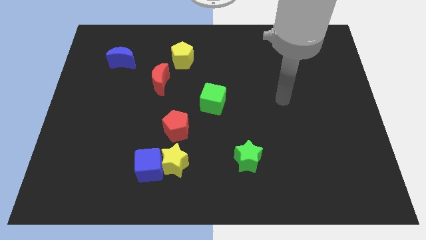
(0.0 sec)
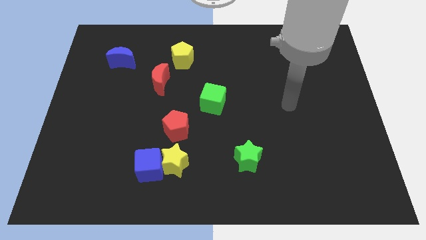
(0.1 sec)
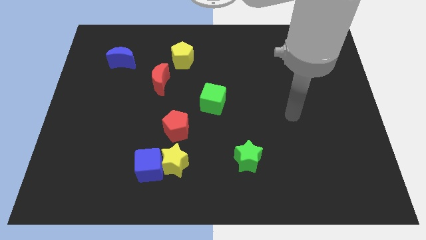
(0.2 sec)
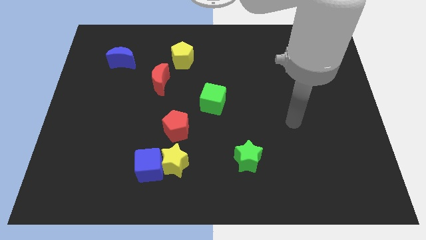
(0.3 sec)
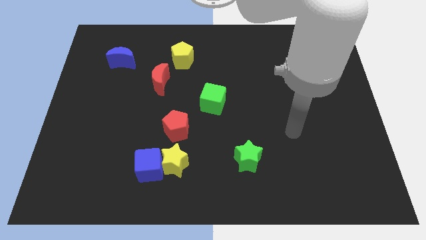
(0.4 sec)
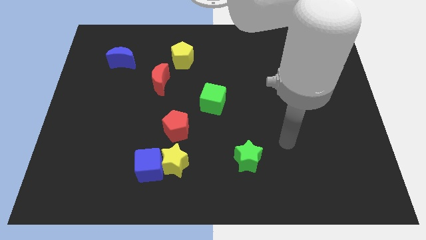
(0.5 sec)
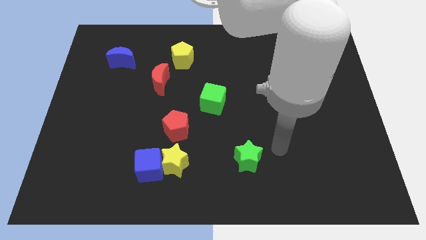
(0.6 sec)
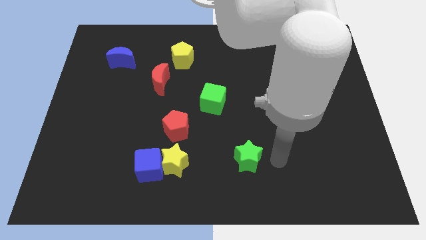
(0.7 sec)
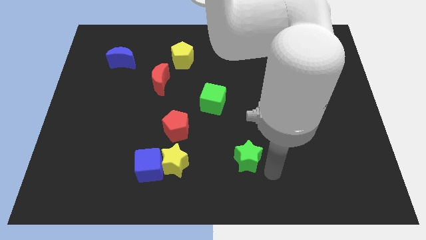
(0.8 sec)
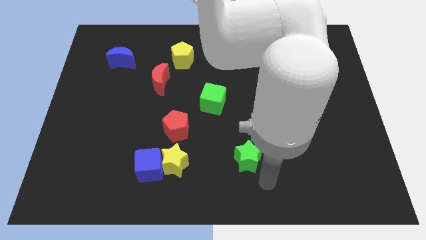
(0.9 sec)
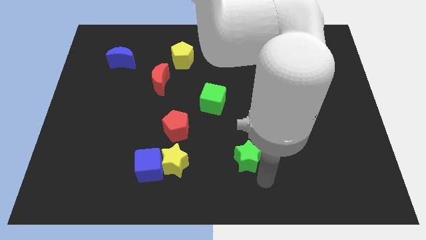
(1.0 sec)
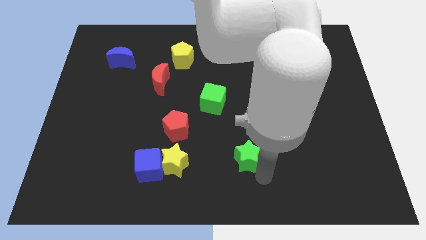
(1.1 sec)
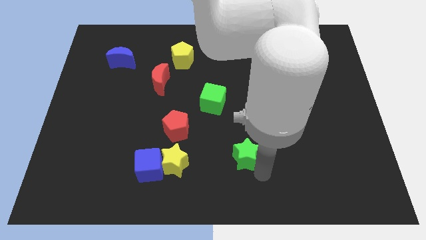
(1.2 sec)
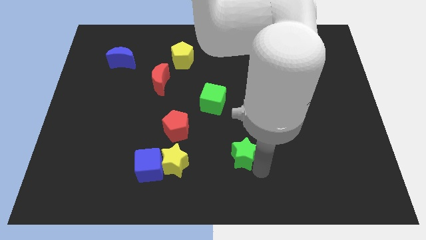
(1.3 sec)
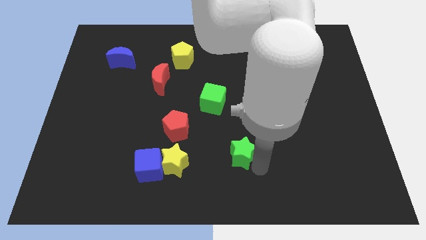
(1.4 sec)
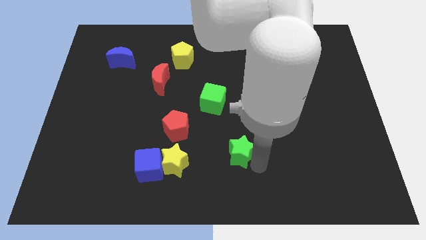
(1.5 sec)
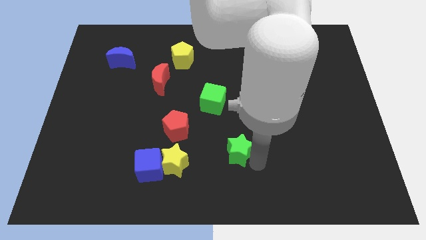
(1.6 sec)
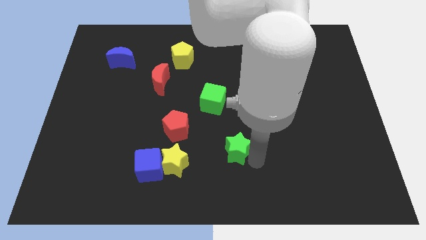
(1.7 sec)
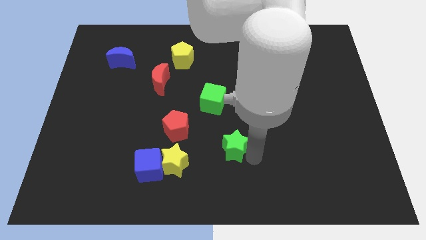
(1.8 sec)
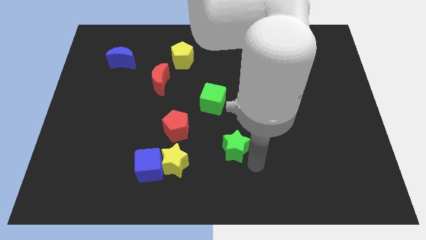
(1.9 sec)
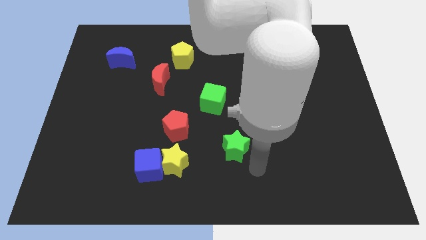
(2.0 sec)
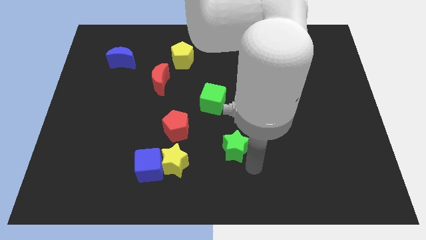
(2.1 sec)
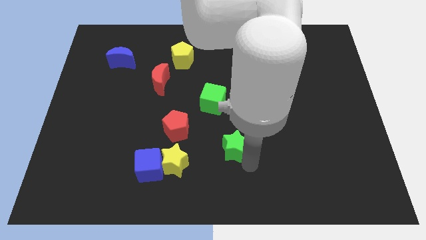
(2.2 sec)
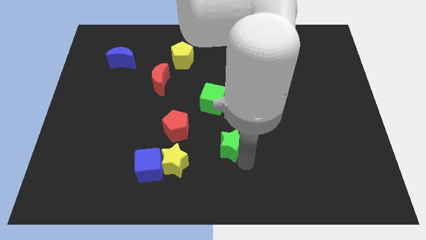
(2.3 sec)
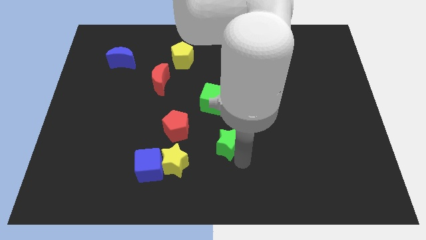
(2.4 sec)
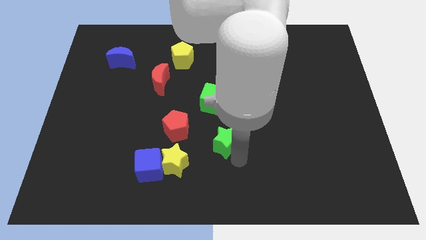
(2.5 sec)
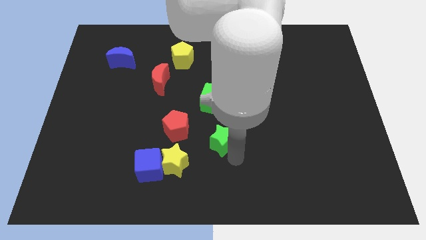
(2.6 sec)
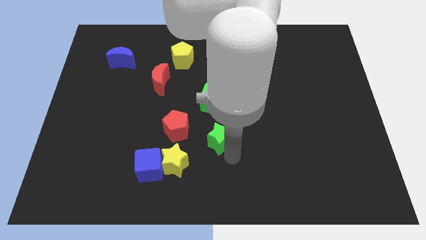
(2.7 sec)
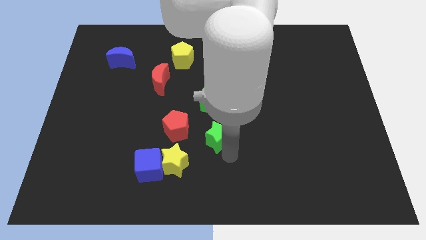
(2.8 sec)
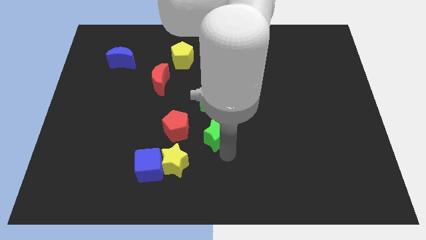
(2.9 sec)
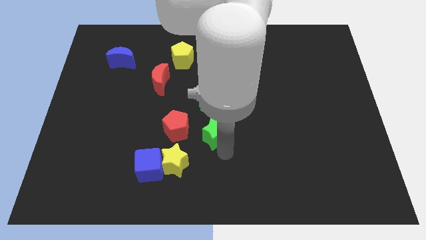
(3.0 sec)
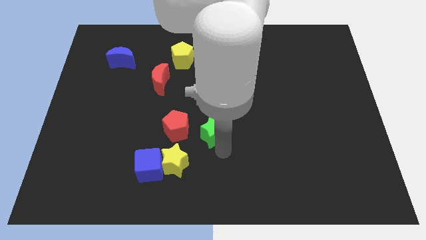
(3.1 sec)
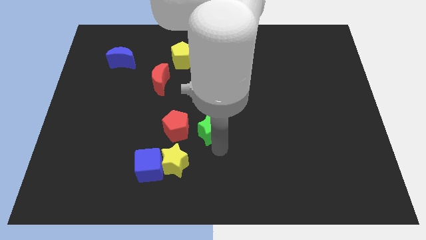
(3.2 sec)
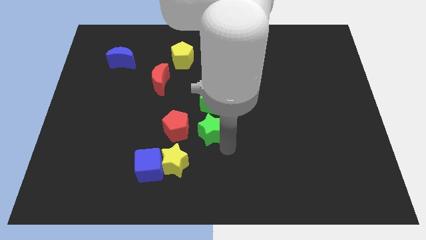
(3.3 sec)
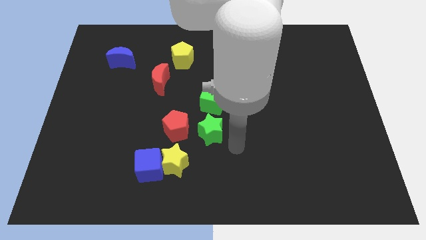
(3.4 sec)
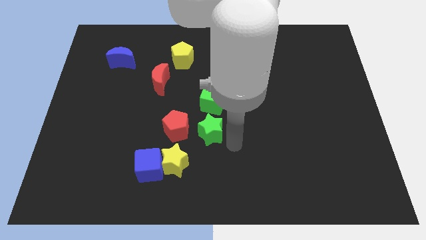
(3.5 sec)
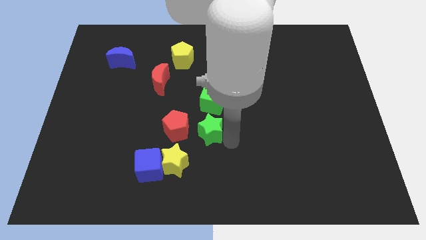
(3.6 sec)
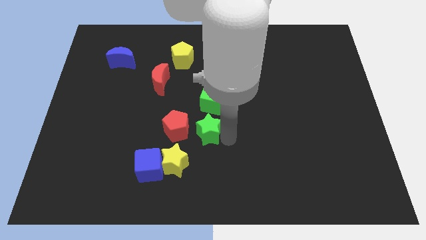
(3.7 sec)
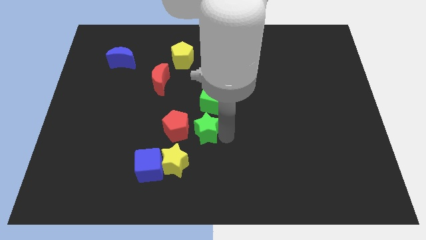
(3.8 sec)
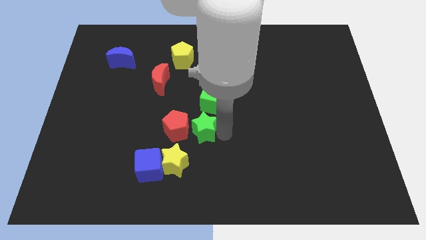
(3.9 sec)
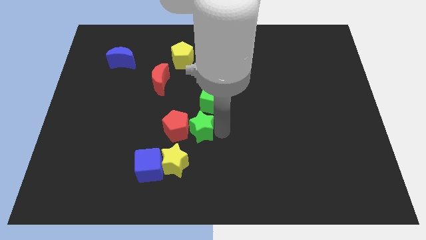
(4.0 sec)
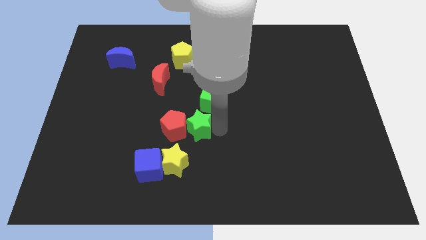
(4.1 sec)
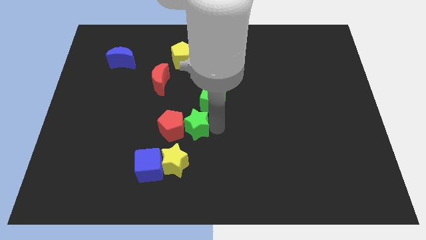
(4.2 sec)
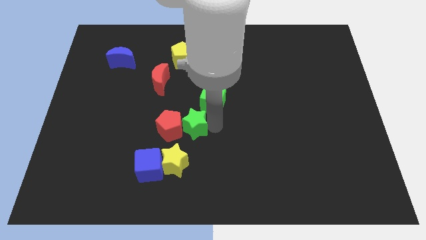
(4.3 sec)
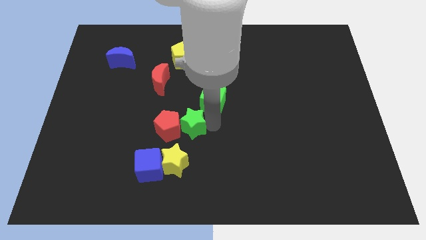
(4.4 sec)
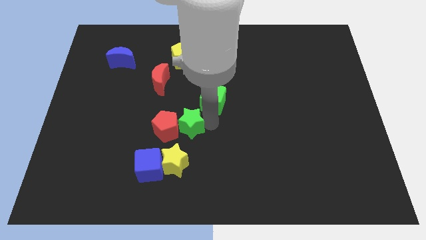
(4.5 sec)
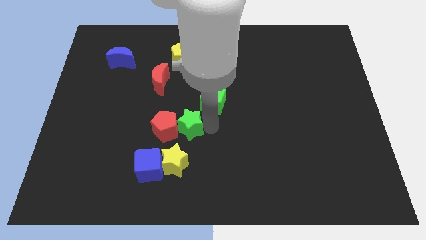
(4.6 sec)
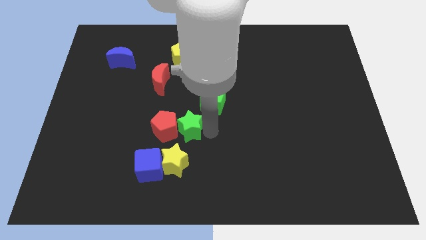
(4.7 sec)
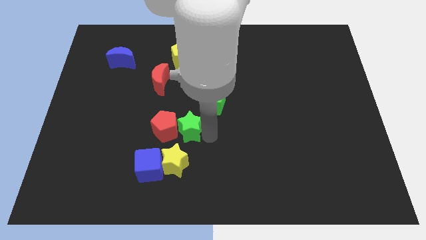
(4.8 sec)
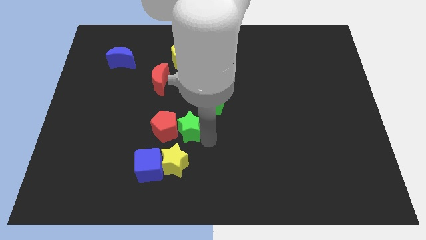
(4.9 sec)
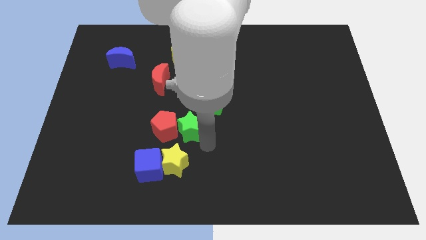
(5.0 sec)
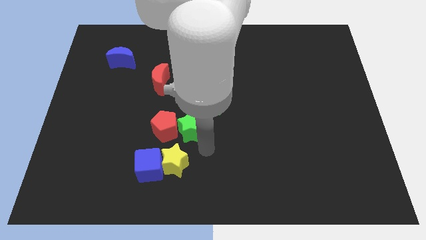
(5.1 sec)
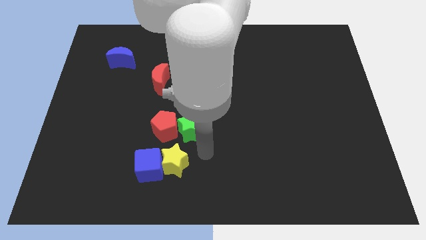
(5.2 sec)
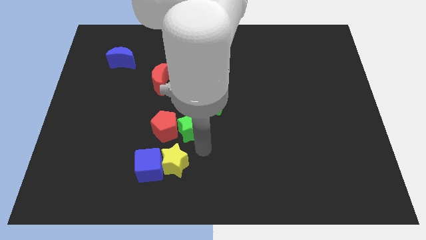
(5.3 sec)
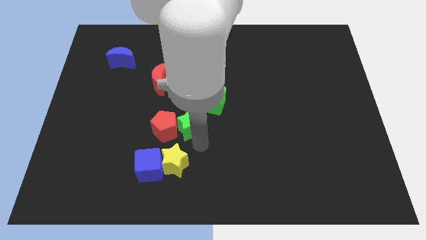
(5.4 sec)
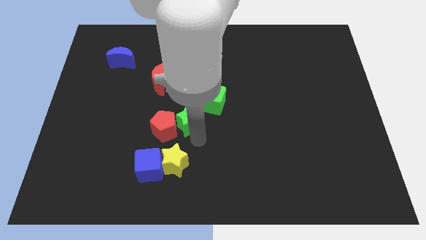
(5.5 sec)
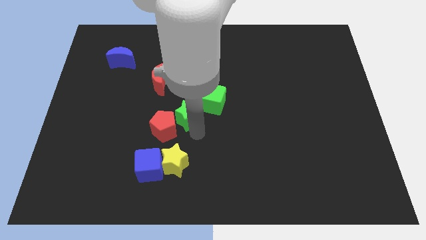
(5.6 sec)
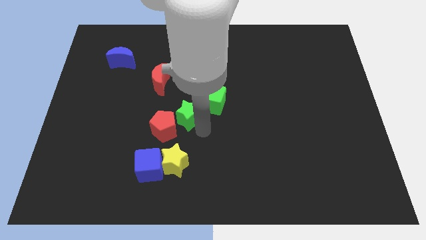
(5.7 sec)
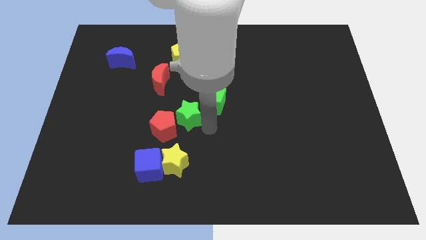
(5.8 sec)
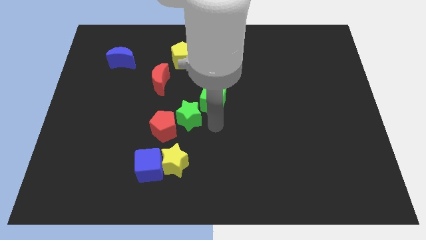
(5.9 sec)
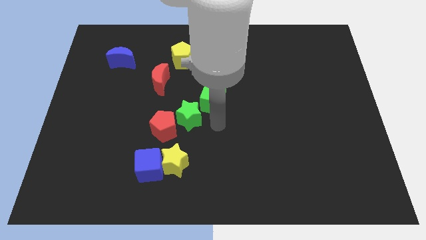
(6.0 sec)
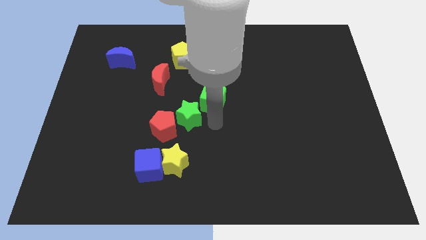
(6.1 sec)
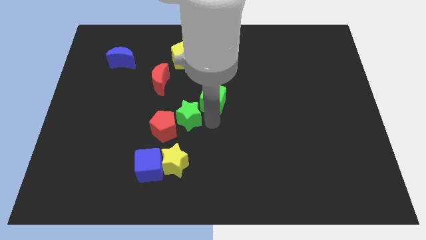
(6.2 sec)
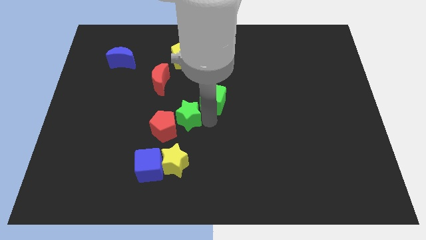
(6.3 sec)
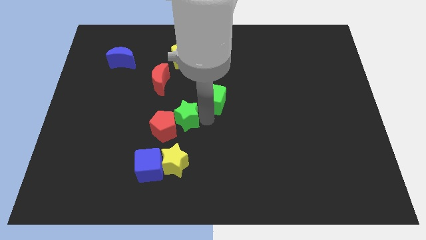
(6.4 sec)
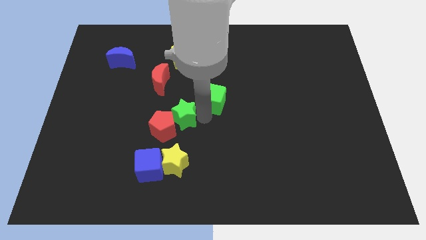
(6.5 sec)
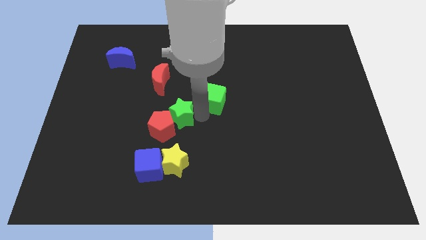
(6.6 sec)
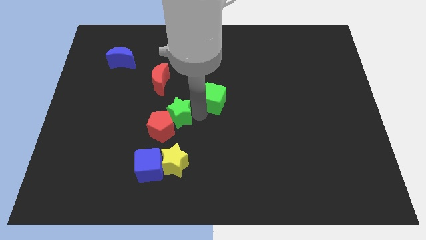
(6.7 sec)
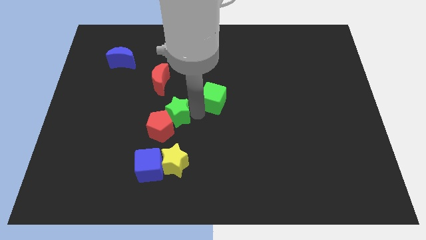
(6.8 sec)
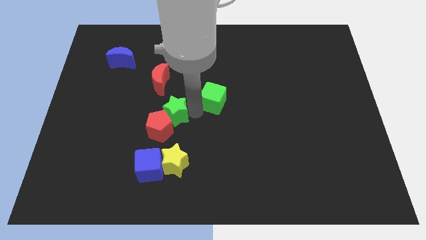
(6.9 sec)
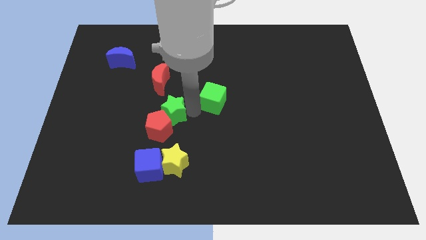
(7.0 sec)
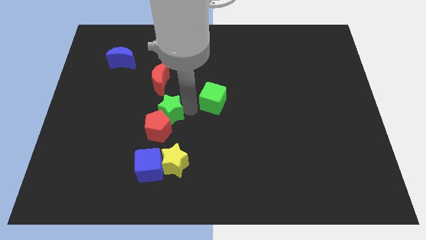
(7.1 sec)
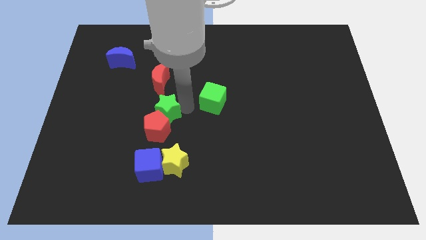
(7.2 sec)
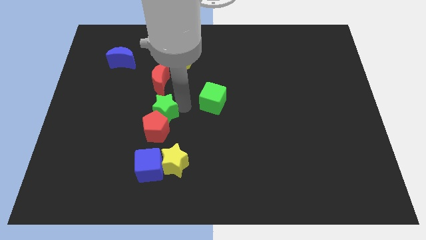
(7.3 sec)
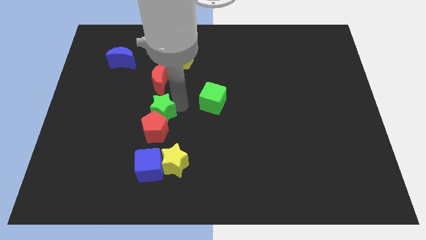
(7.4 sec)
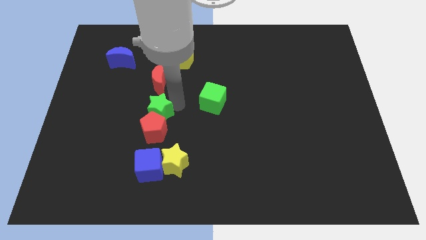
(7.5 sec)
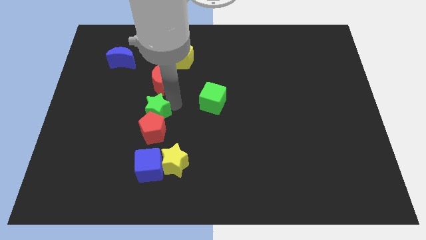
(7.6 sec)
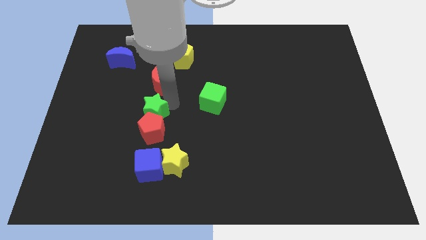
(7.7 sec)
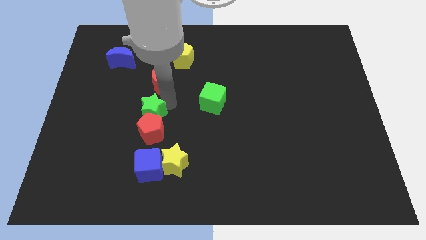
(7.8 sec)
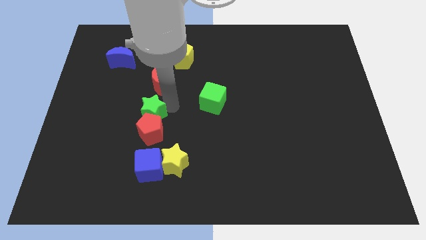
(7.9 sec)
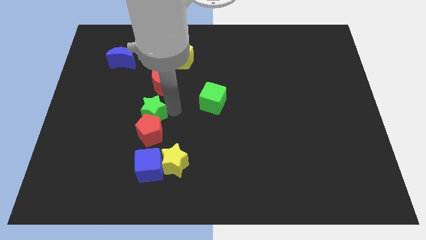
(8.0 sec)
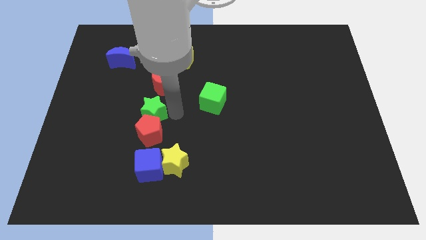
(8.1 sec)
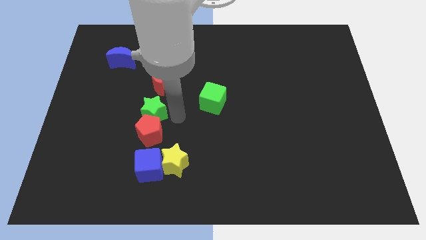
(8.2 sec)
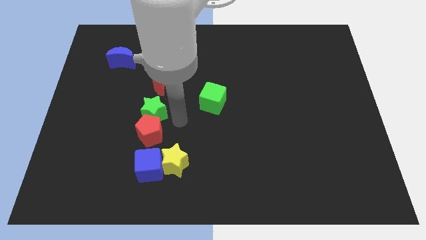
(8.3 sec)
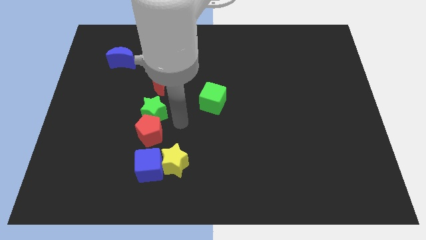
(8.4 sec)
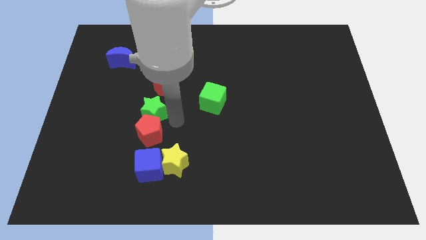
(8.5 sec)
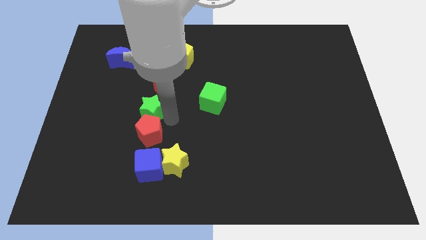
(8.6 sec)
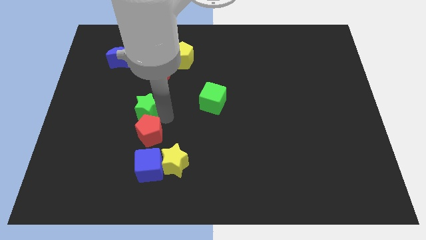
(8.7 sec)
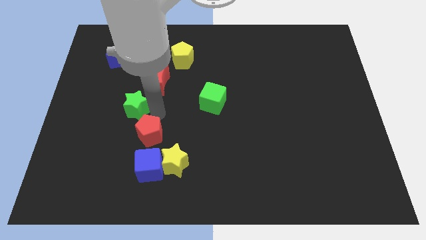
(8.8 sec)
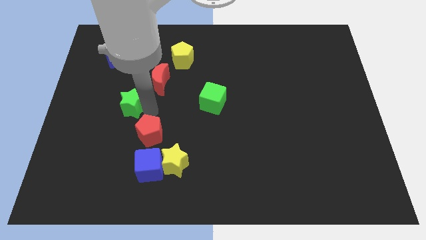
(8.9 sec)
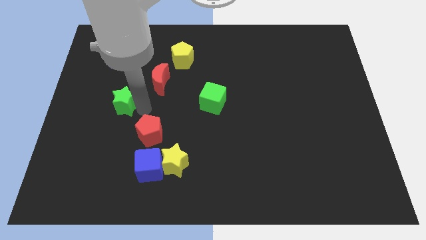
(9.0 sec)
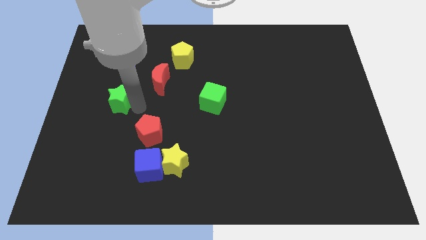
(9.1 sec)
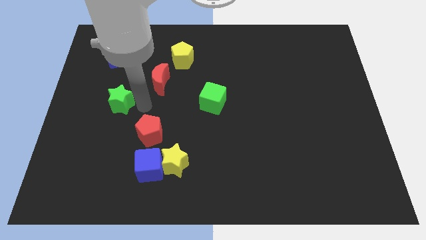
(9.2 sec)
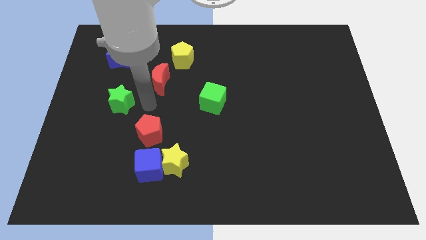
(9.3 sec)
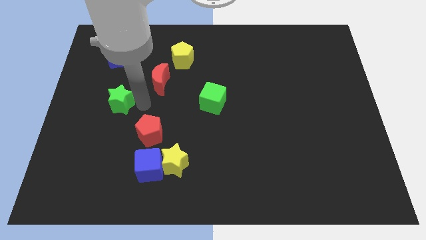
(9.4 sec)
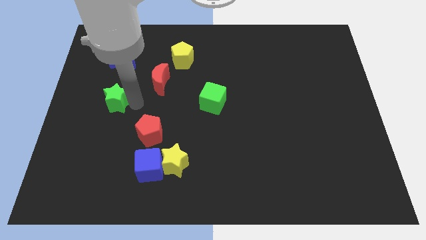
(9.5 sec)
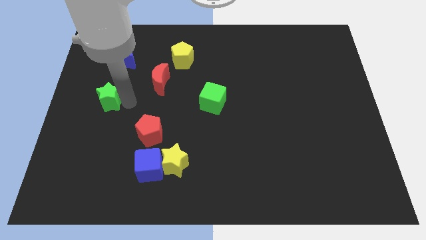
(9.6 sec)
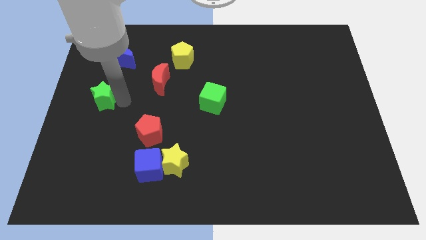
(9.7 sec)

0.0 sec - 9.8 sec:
push the green star to the left side
